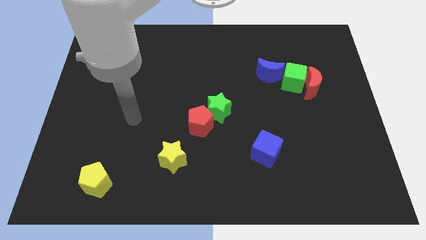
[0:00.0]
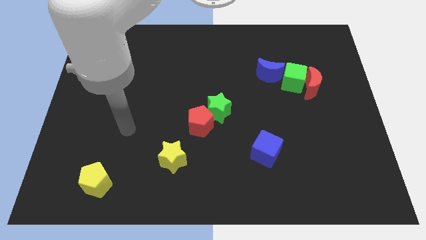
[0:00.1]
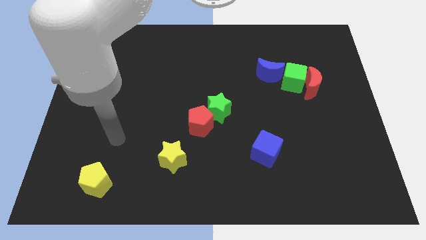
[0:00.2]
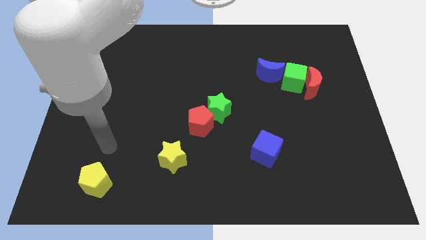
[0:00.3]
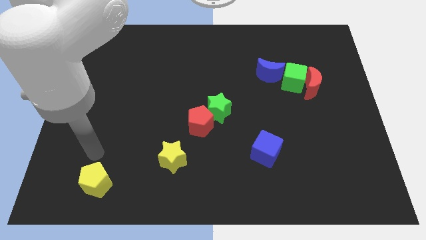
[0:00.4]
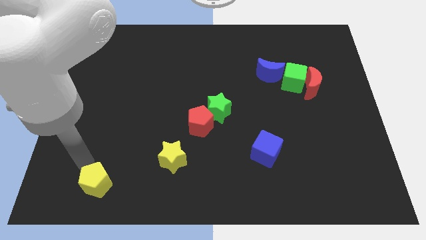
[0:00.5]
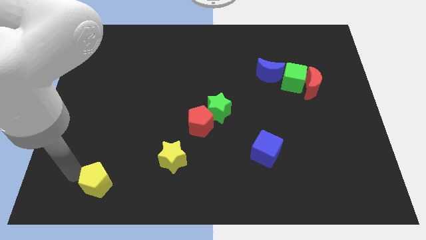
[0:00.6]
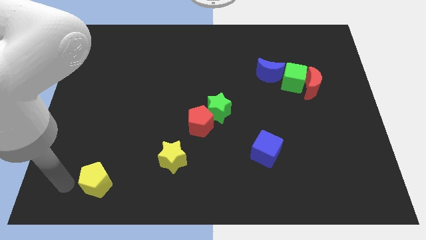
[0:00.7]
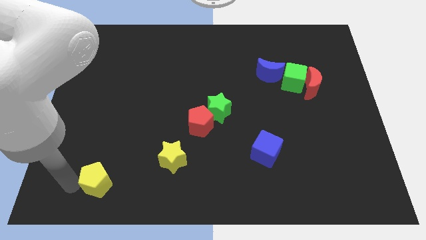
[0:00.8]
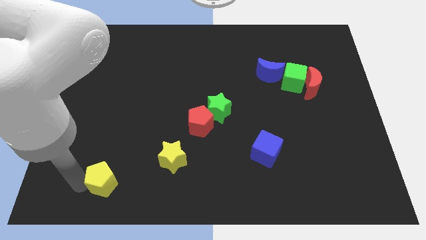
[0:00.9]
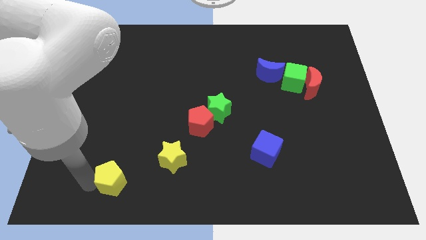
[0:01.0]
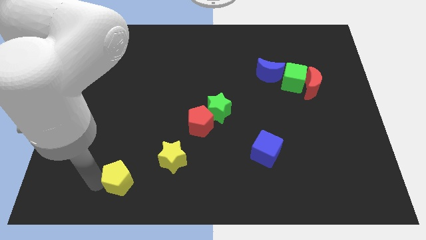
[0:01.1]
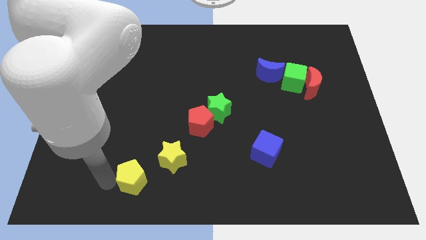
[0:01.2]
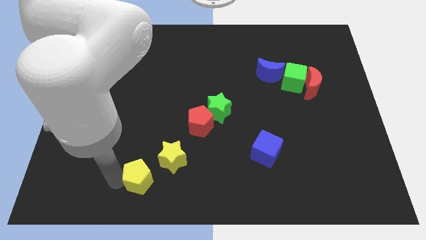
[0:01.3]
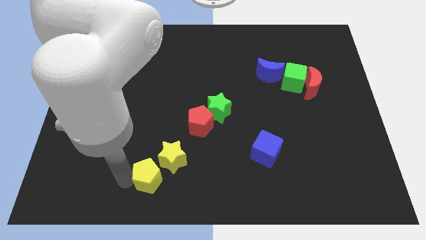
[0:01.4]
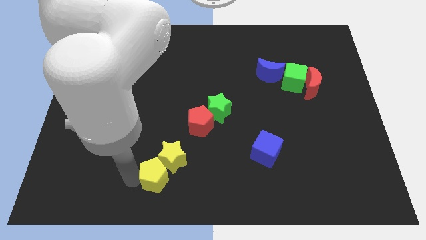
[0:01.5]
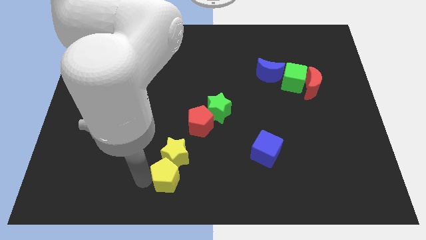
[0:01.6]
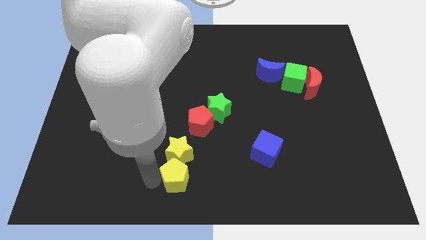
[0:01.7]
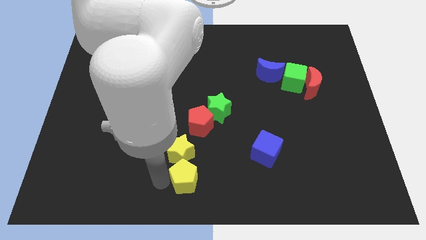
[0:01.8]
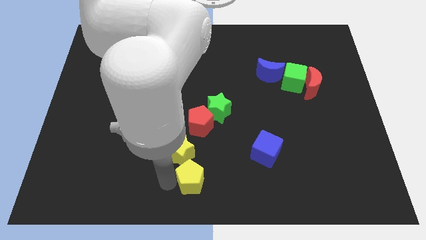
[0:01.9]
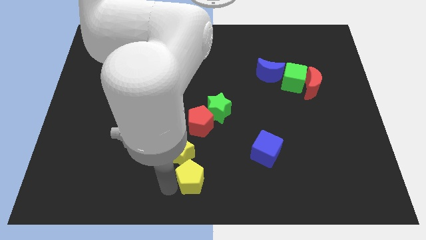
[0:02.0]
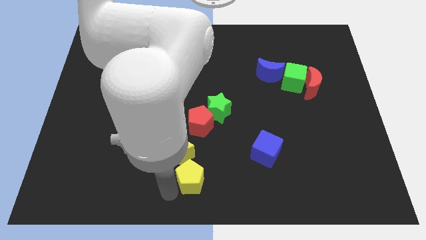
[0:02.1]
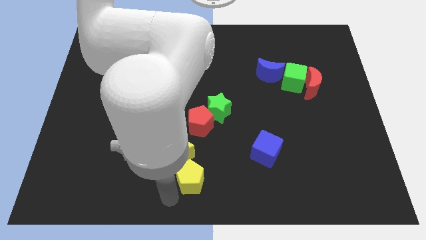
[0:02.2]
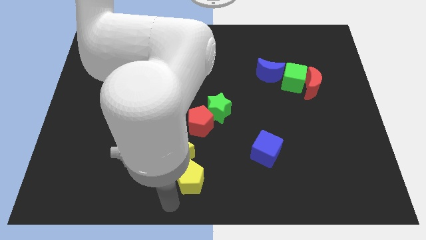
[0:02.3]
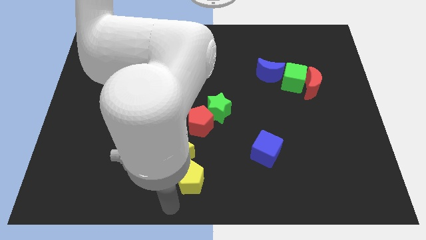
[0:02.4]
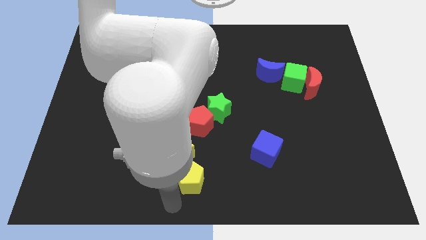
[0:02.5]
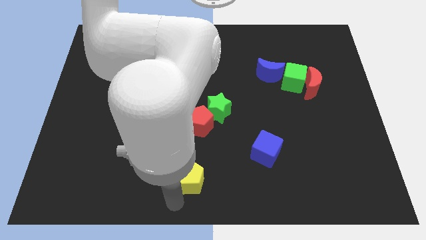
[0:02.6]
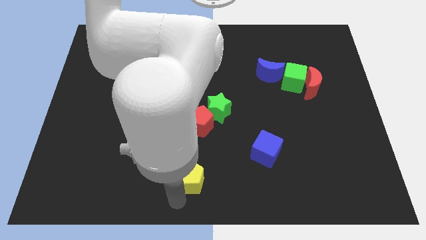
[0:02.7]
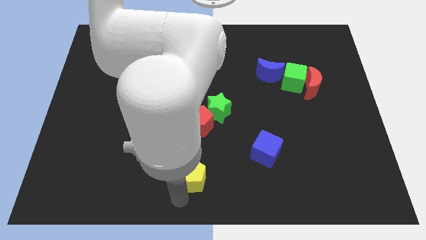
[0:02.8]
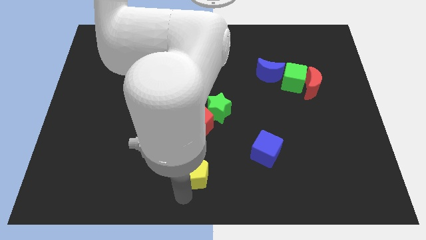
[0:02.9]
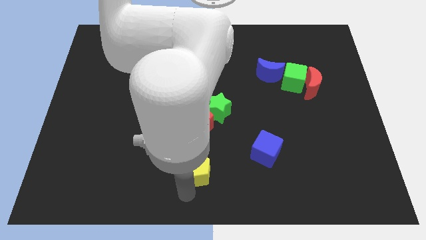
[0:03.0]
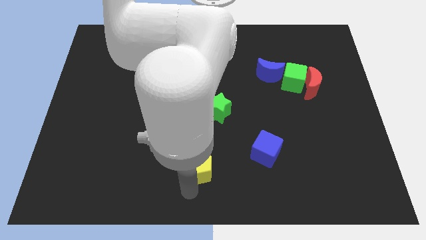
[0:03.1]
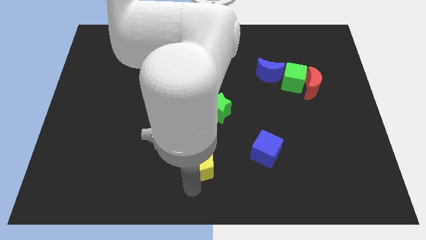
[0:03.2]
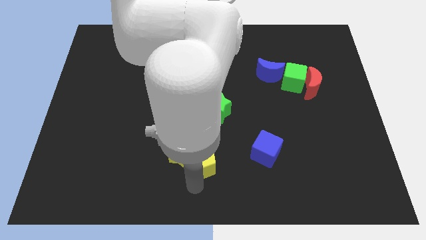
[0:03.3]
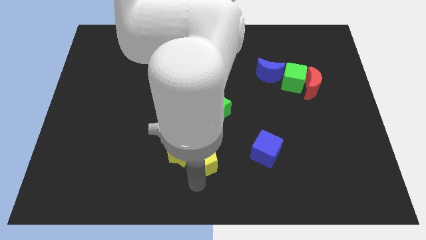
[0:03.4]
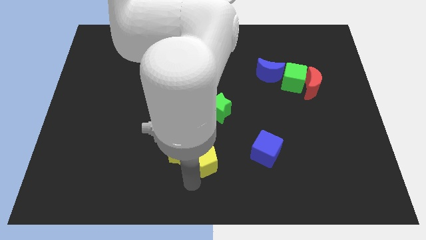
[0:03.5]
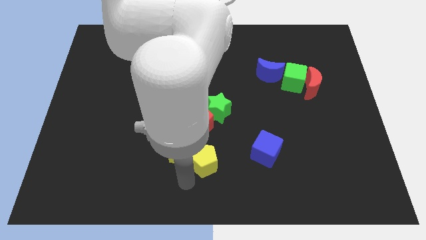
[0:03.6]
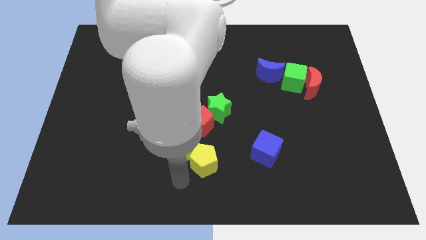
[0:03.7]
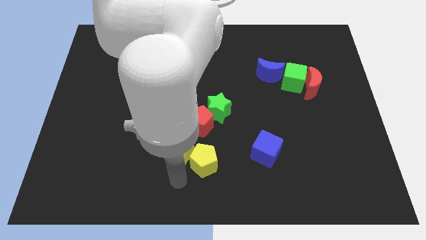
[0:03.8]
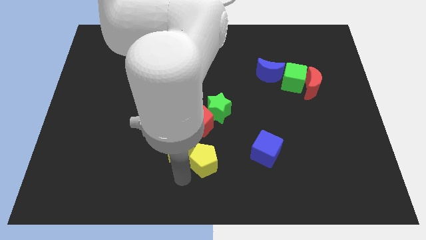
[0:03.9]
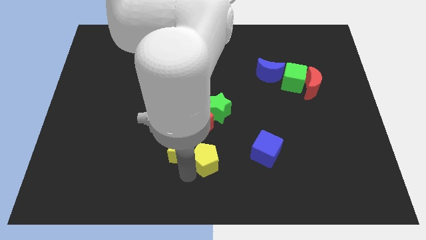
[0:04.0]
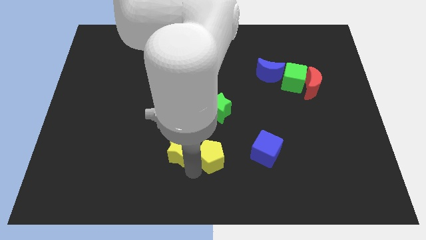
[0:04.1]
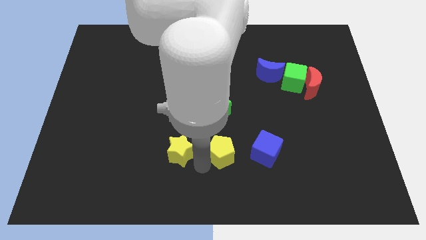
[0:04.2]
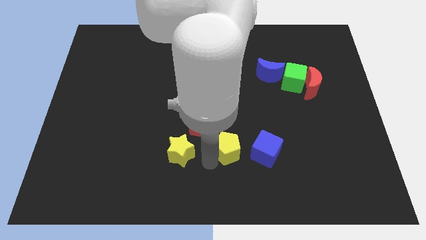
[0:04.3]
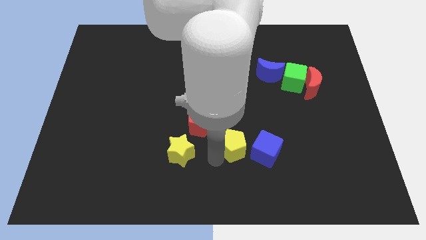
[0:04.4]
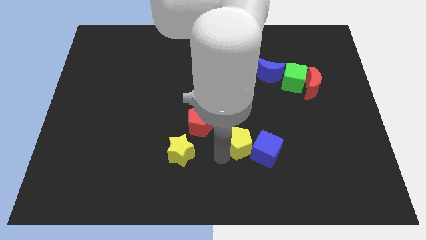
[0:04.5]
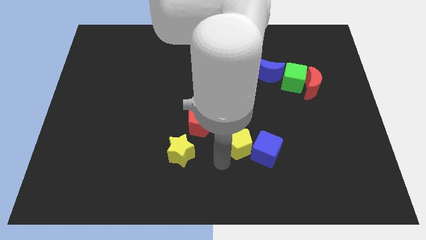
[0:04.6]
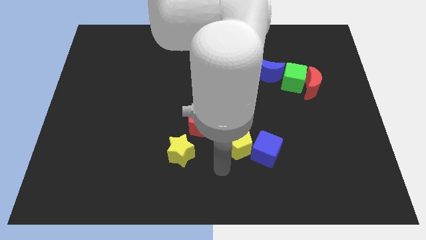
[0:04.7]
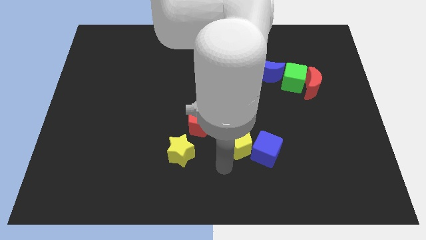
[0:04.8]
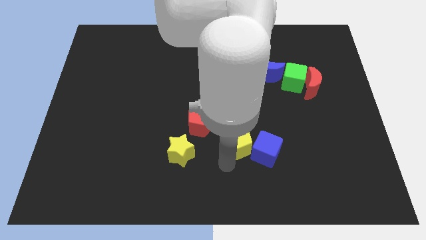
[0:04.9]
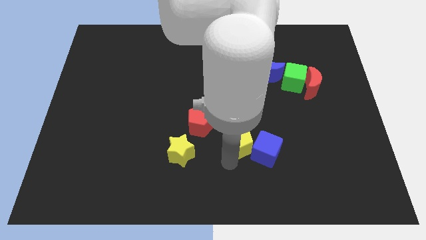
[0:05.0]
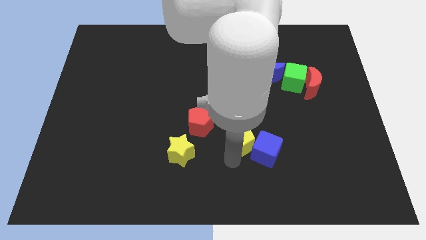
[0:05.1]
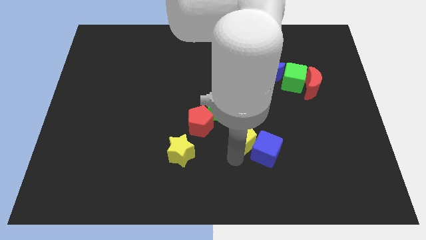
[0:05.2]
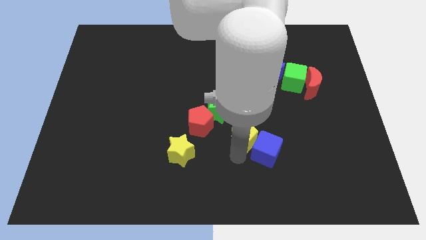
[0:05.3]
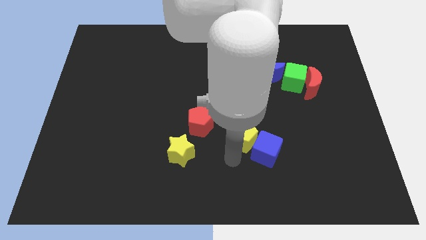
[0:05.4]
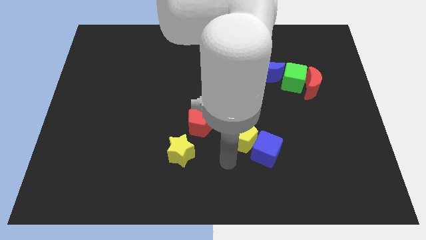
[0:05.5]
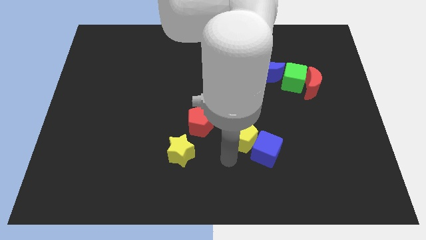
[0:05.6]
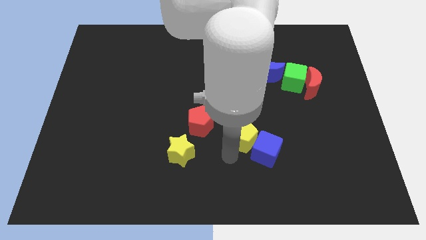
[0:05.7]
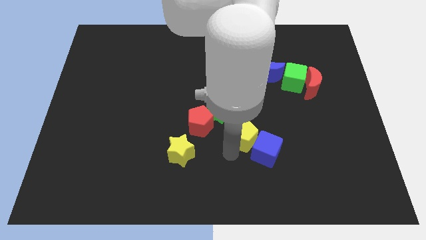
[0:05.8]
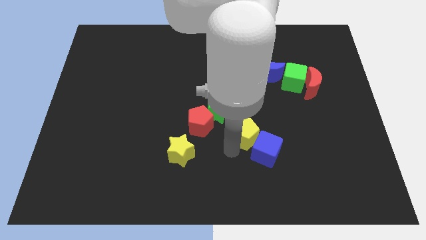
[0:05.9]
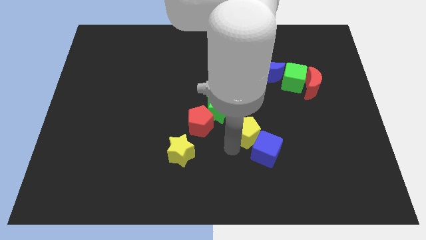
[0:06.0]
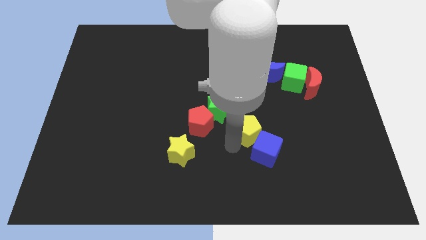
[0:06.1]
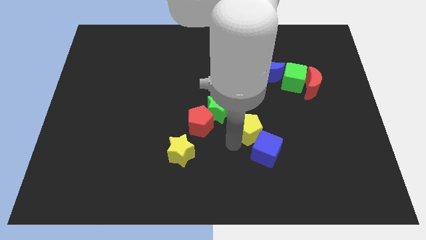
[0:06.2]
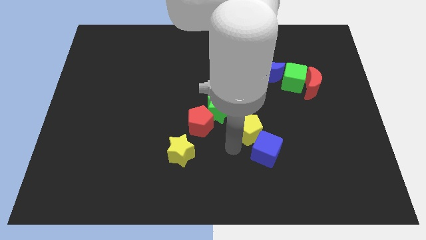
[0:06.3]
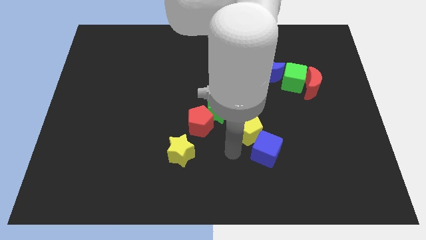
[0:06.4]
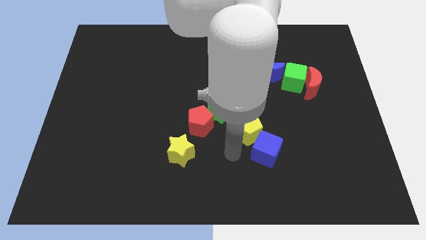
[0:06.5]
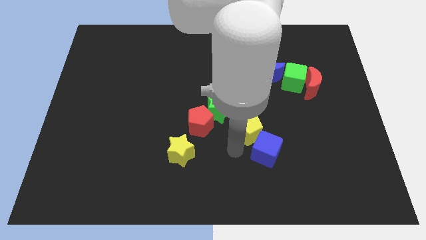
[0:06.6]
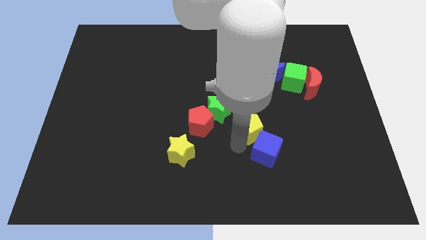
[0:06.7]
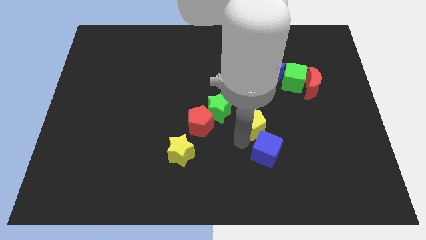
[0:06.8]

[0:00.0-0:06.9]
move the yellow pentagon right of the green star

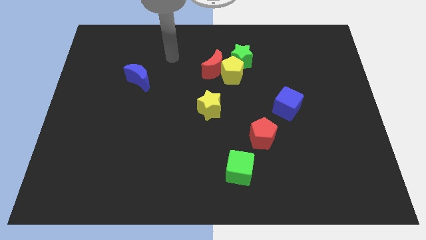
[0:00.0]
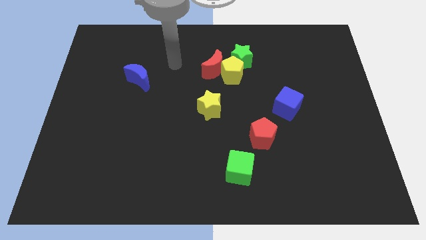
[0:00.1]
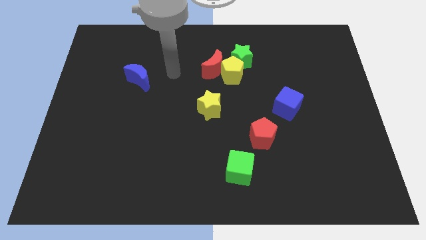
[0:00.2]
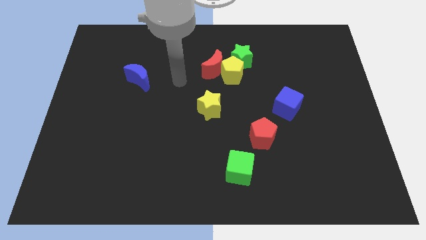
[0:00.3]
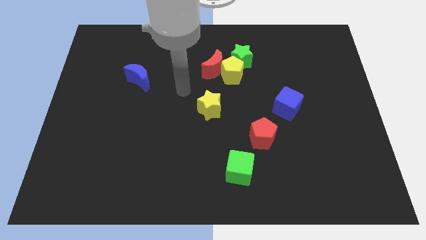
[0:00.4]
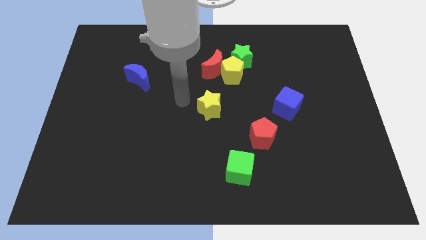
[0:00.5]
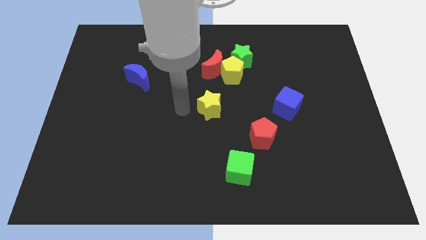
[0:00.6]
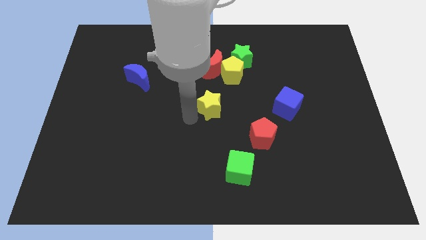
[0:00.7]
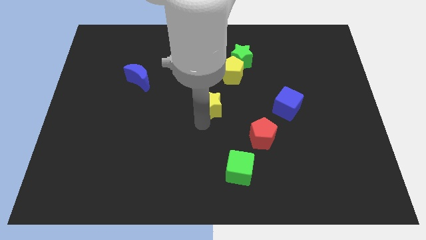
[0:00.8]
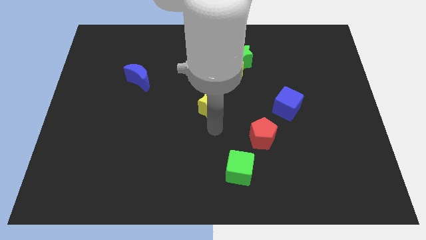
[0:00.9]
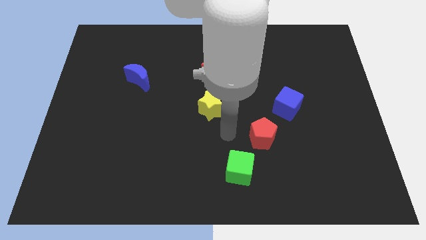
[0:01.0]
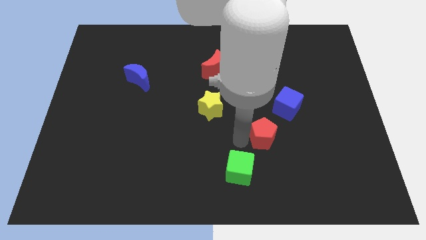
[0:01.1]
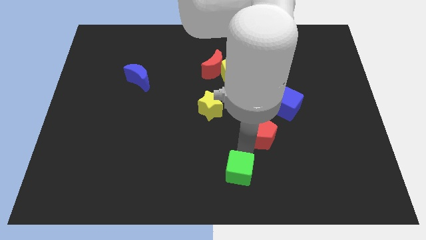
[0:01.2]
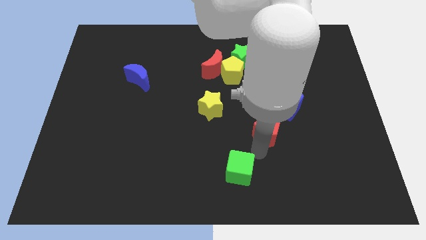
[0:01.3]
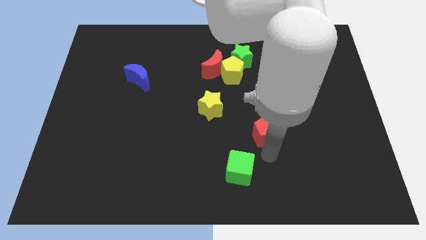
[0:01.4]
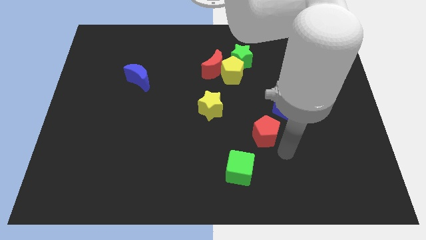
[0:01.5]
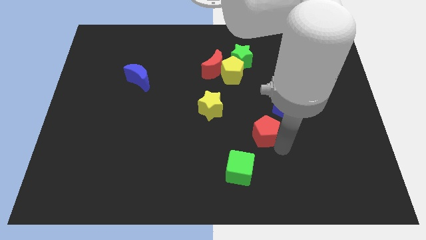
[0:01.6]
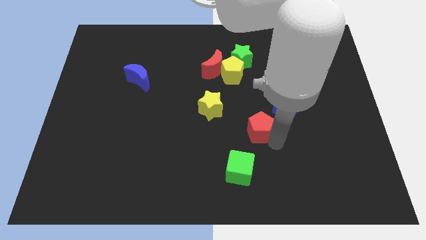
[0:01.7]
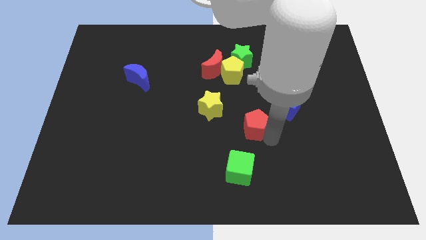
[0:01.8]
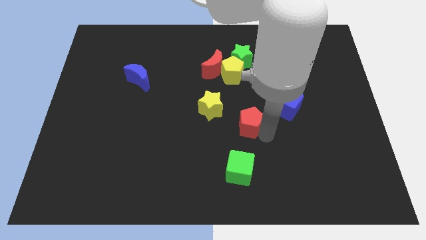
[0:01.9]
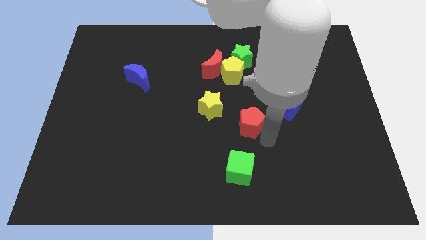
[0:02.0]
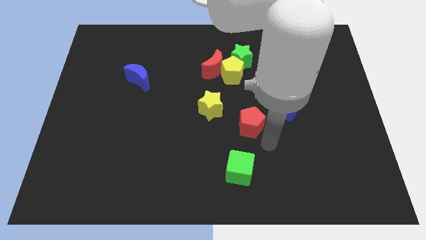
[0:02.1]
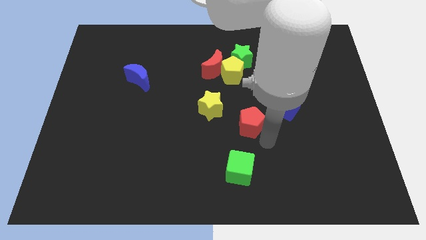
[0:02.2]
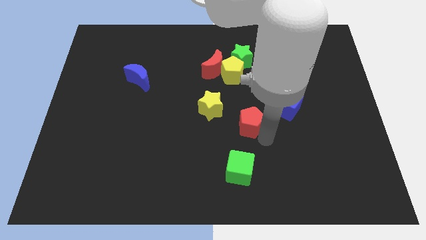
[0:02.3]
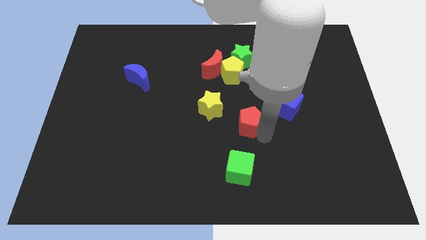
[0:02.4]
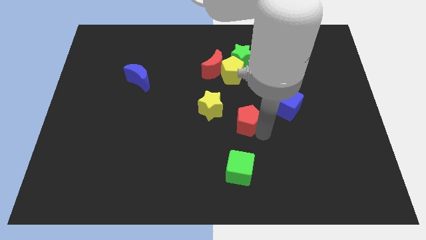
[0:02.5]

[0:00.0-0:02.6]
slide the red pentagon to the bottom side of the yellow pentagon
